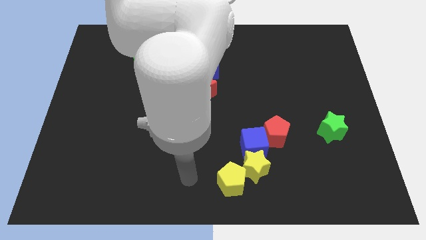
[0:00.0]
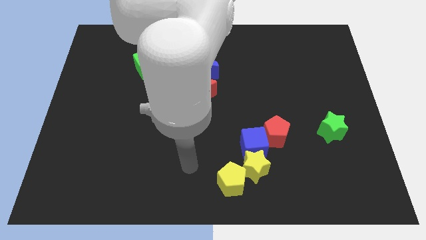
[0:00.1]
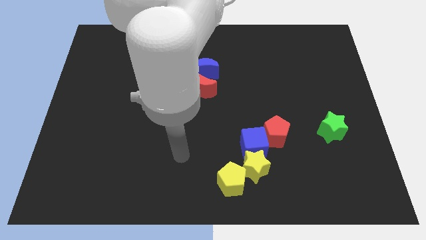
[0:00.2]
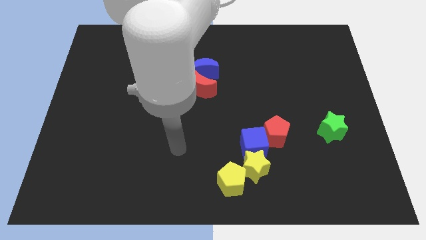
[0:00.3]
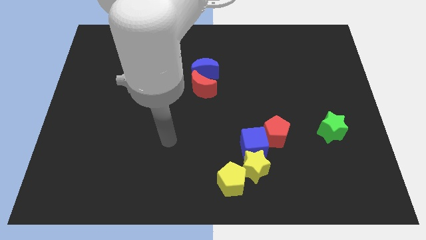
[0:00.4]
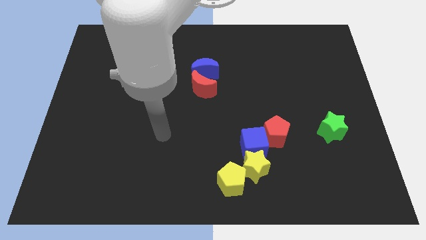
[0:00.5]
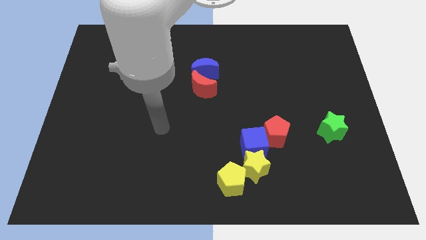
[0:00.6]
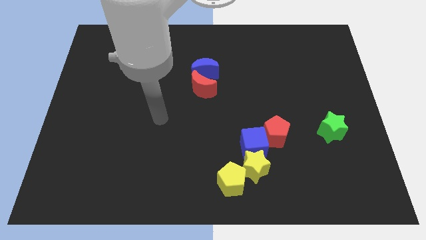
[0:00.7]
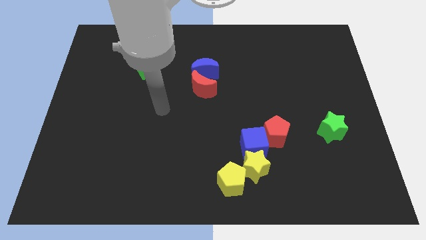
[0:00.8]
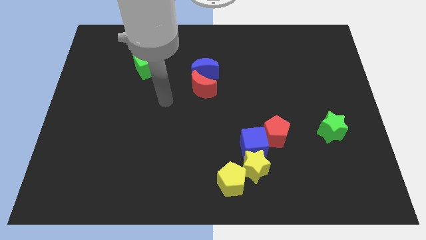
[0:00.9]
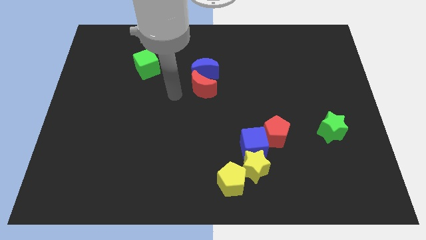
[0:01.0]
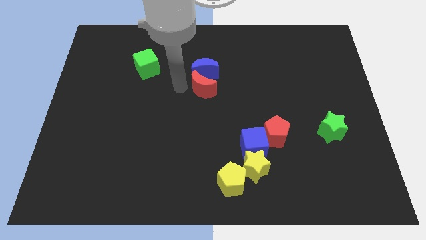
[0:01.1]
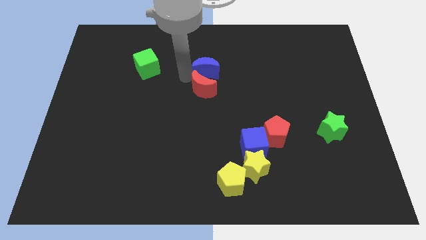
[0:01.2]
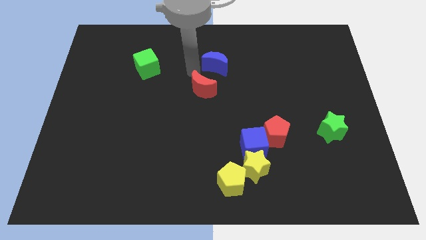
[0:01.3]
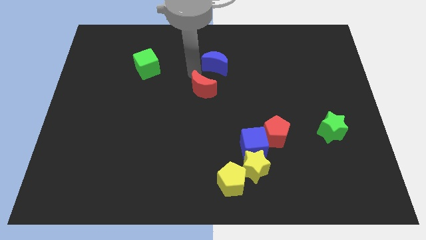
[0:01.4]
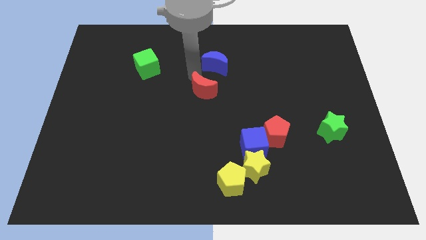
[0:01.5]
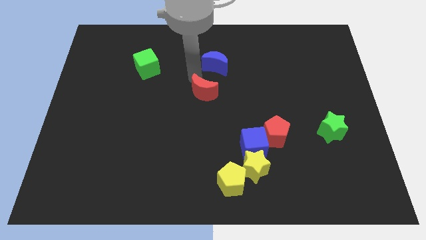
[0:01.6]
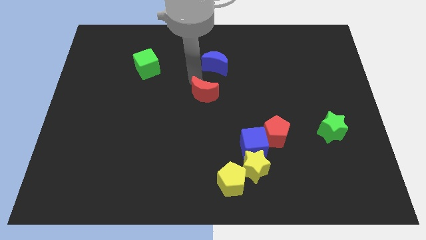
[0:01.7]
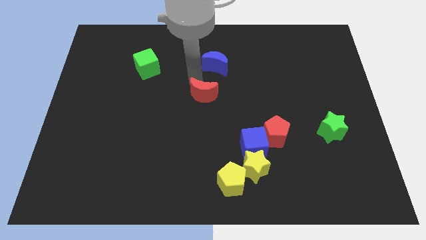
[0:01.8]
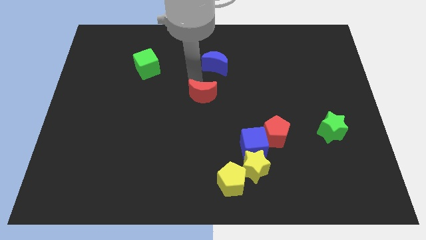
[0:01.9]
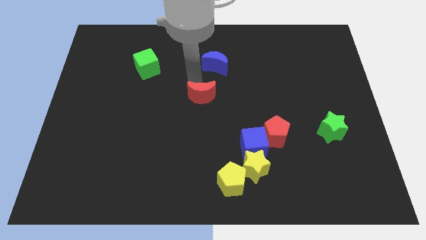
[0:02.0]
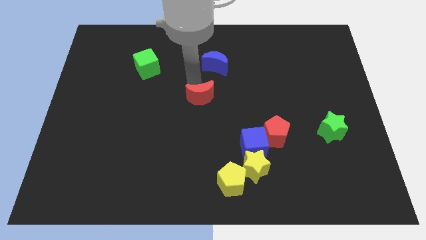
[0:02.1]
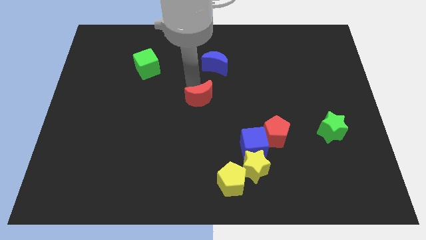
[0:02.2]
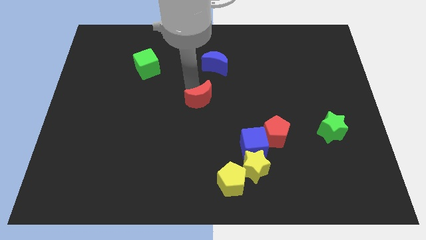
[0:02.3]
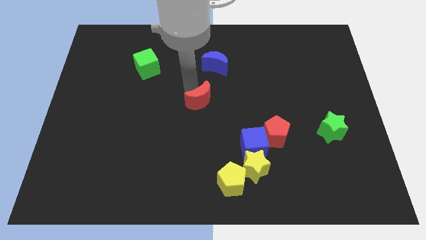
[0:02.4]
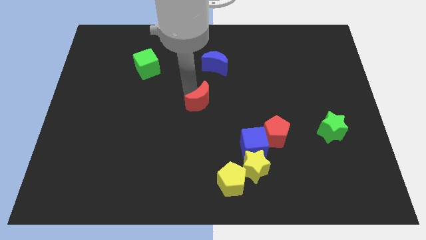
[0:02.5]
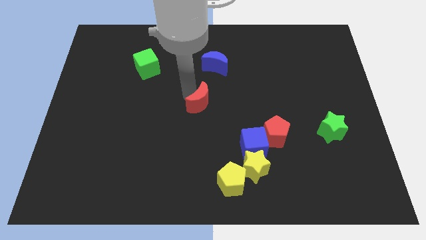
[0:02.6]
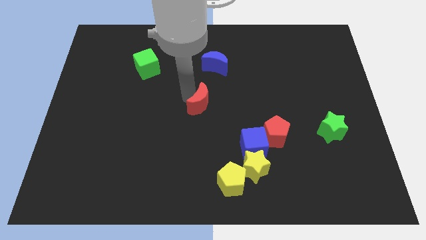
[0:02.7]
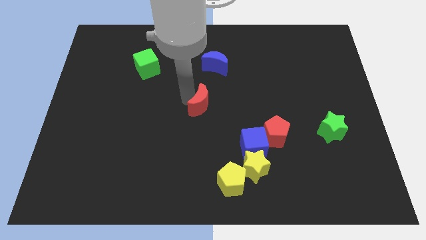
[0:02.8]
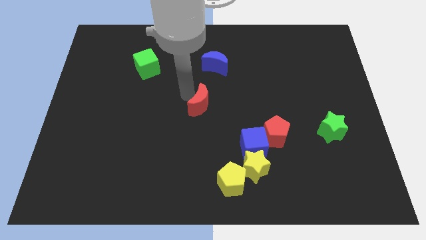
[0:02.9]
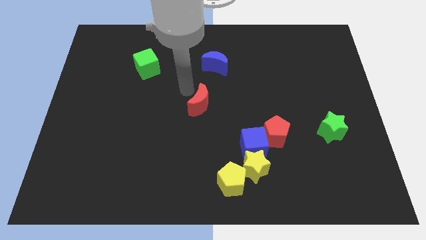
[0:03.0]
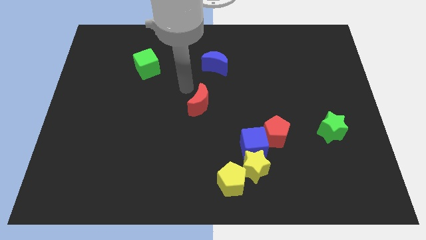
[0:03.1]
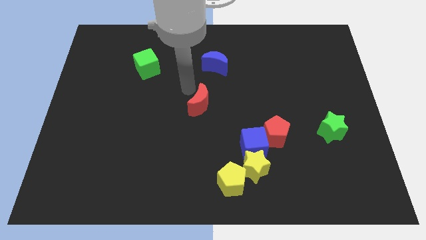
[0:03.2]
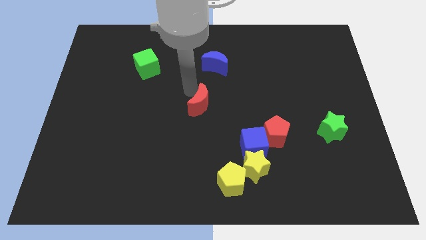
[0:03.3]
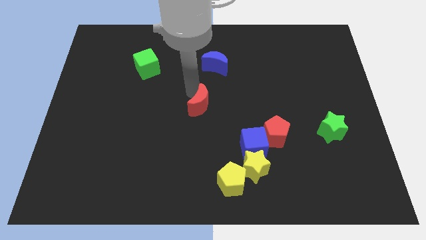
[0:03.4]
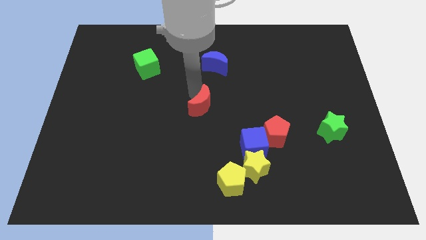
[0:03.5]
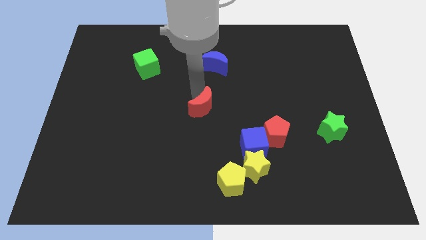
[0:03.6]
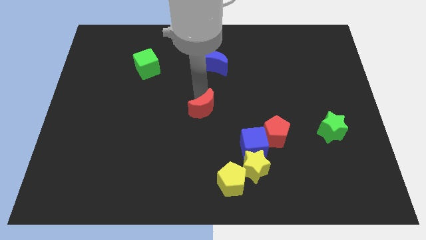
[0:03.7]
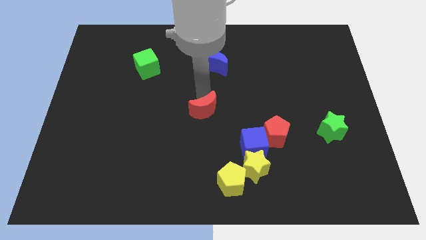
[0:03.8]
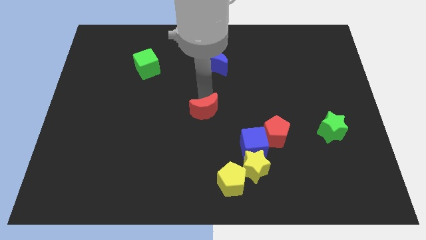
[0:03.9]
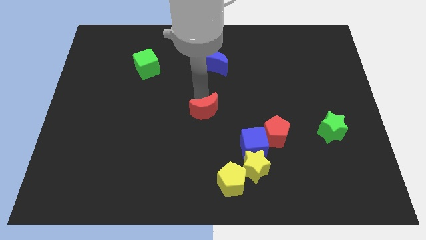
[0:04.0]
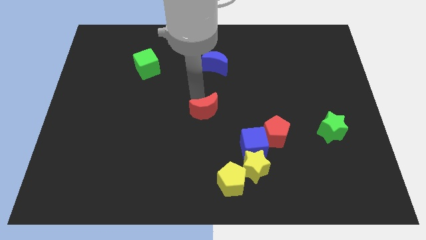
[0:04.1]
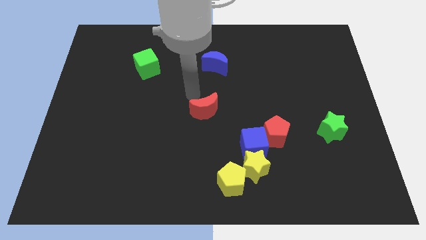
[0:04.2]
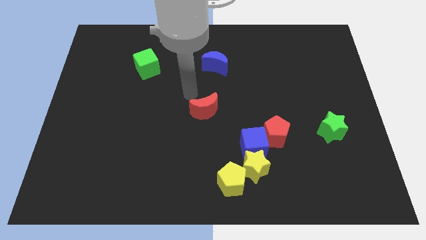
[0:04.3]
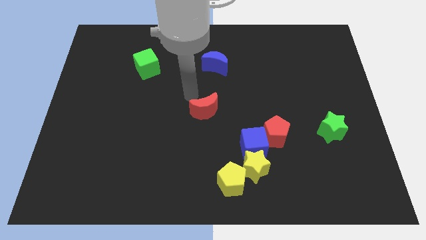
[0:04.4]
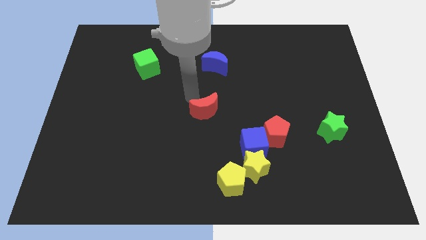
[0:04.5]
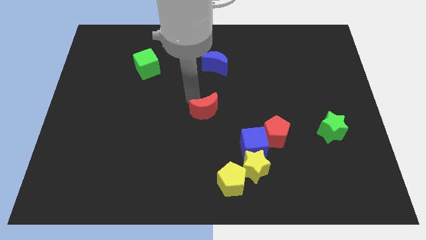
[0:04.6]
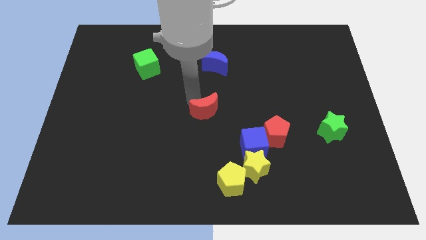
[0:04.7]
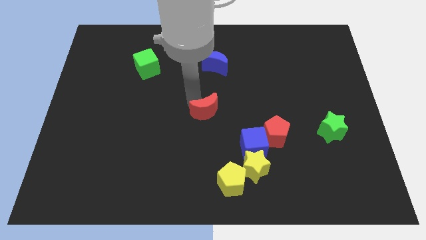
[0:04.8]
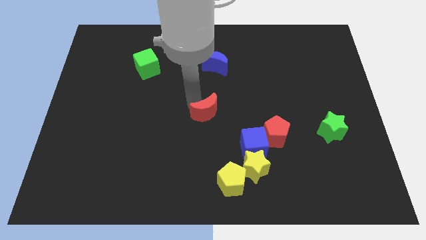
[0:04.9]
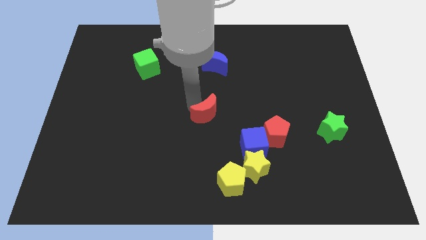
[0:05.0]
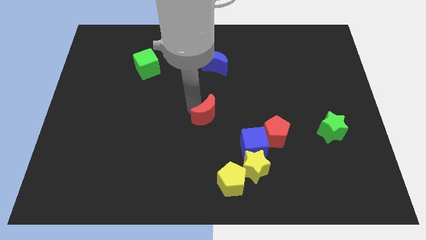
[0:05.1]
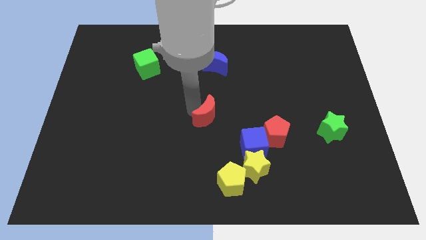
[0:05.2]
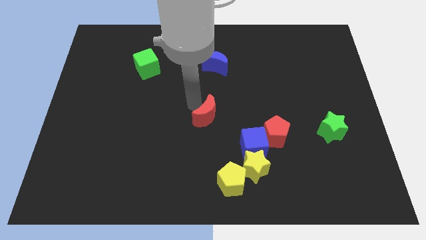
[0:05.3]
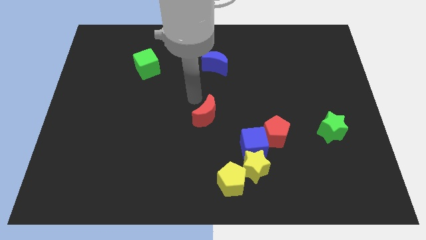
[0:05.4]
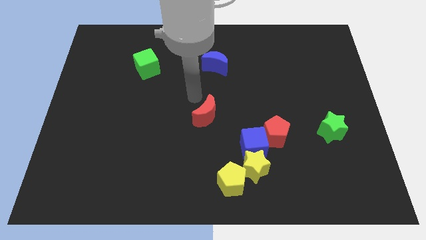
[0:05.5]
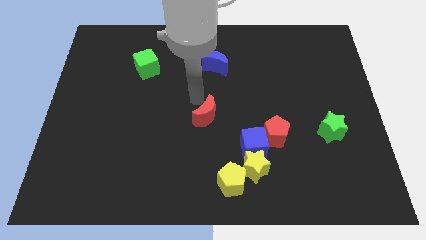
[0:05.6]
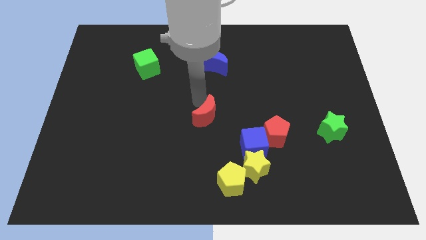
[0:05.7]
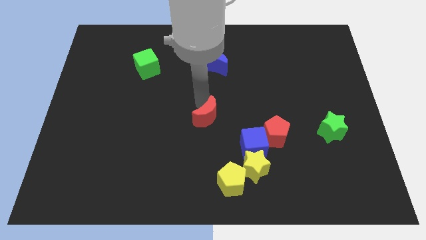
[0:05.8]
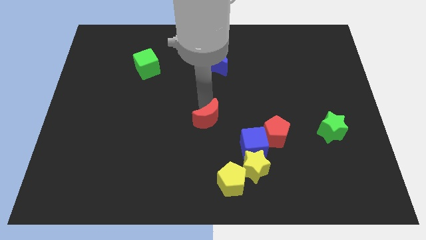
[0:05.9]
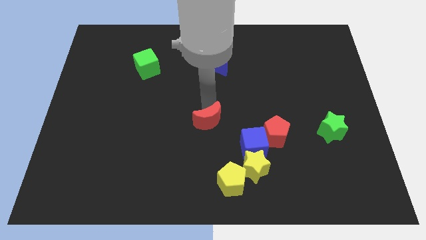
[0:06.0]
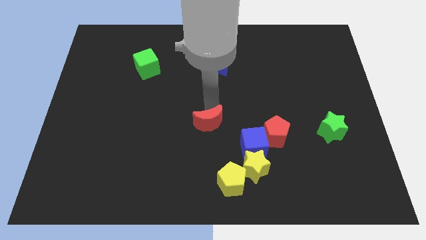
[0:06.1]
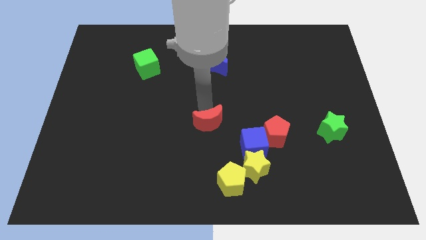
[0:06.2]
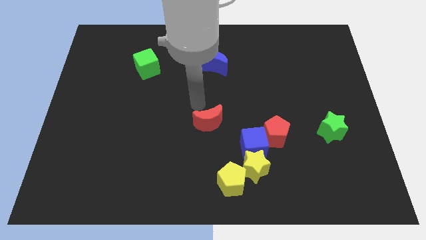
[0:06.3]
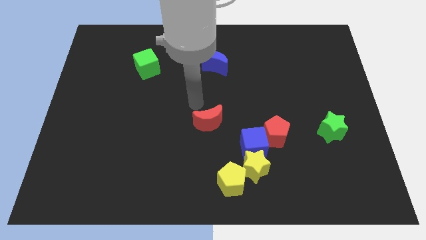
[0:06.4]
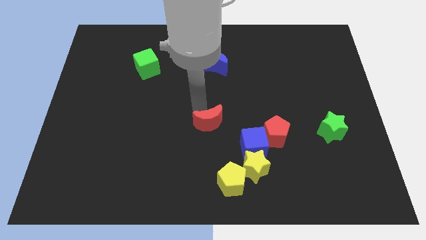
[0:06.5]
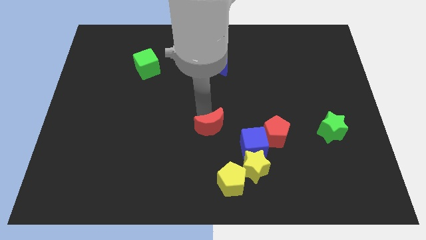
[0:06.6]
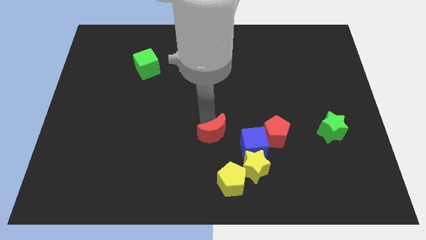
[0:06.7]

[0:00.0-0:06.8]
move the red moon to the top left side of the yellow star
